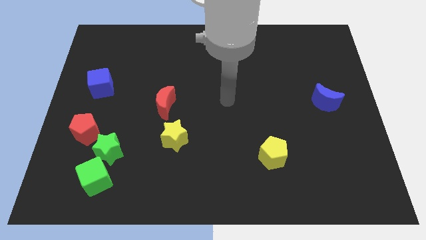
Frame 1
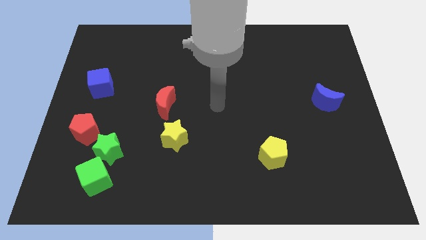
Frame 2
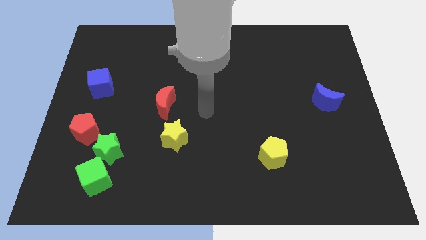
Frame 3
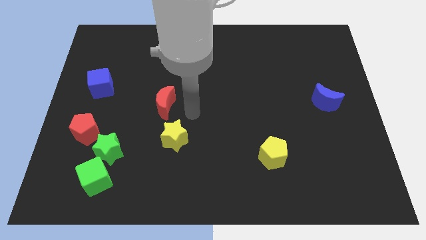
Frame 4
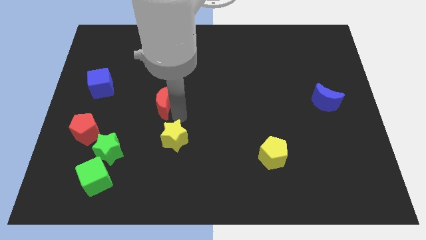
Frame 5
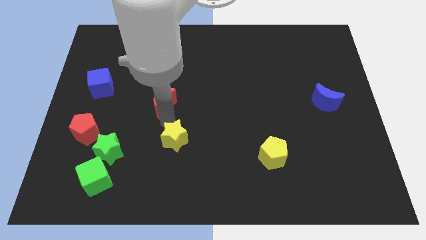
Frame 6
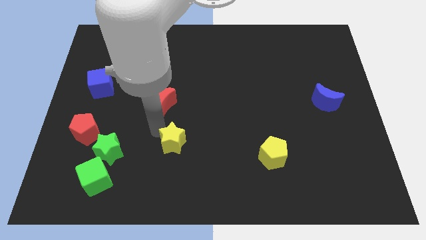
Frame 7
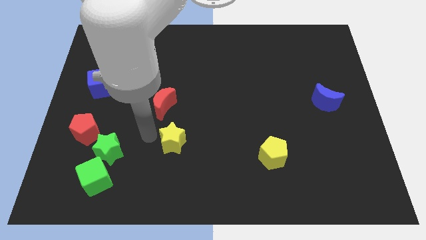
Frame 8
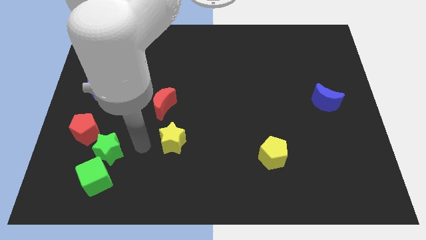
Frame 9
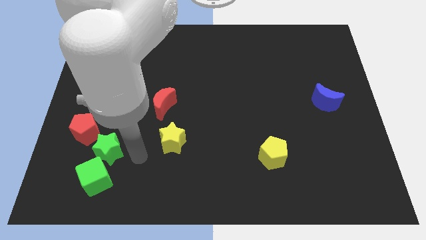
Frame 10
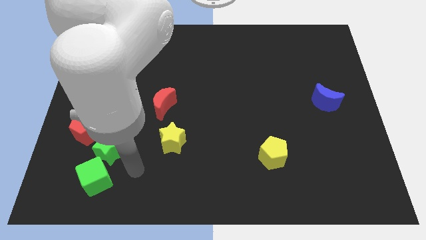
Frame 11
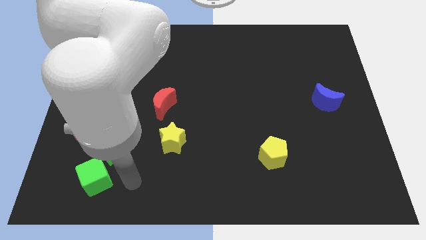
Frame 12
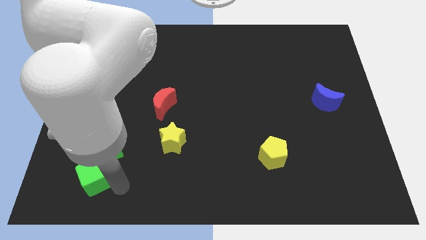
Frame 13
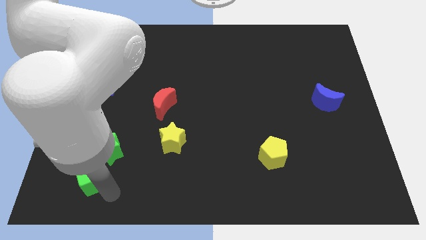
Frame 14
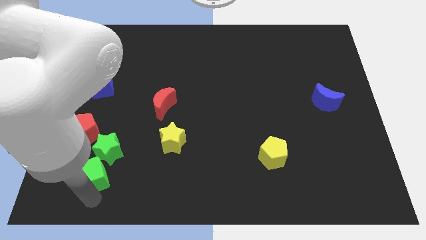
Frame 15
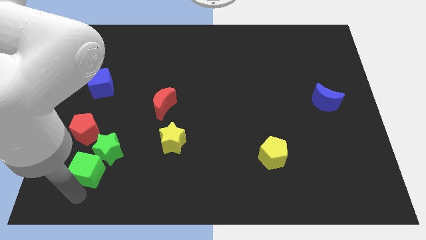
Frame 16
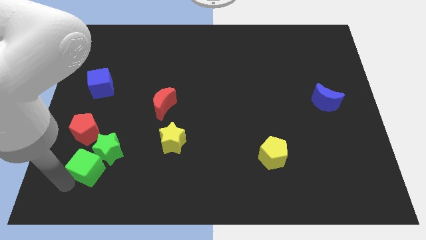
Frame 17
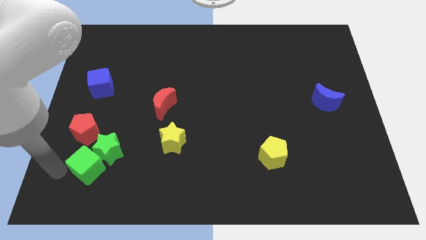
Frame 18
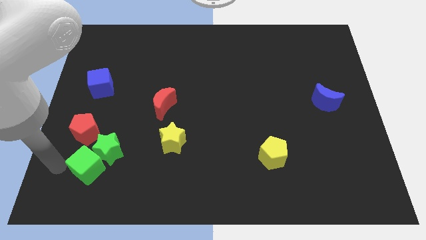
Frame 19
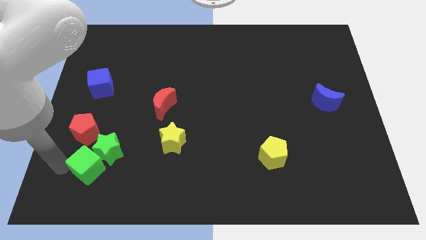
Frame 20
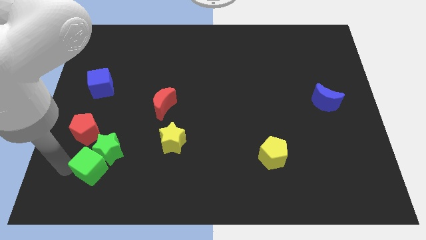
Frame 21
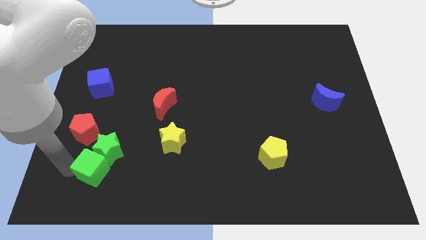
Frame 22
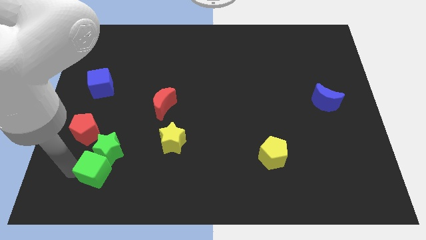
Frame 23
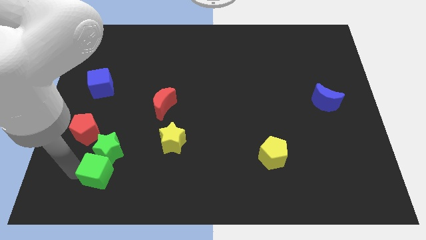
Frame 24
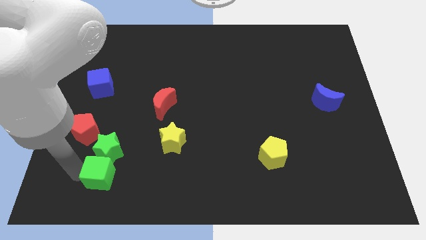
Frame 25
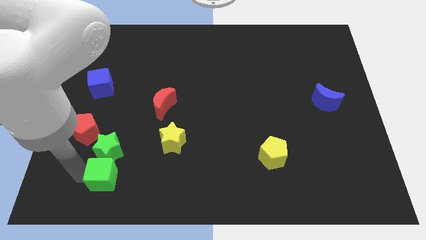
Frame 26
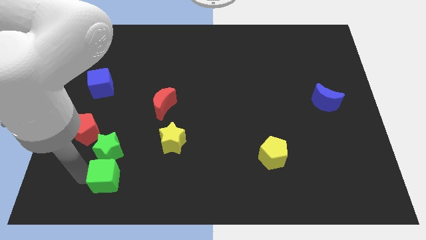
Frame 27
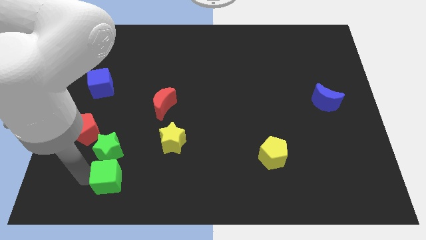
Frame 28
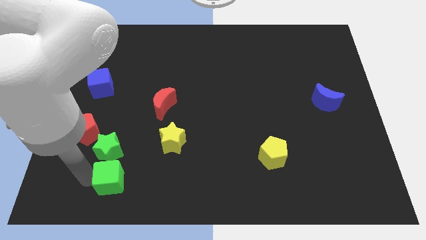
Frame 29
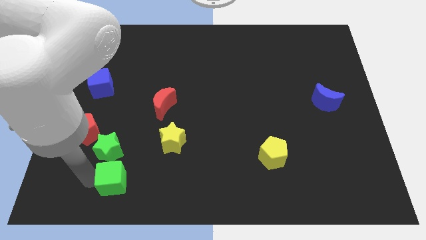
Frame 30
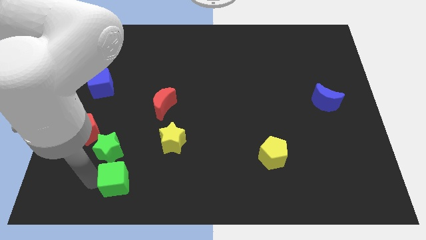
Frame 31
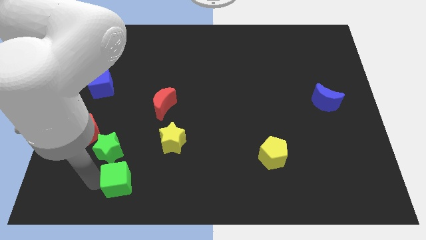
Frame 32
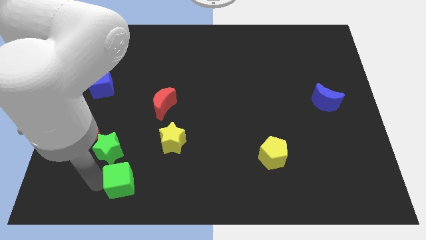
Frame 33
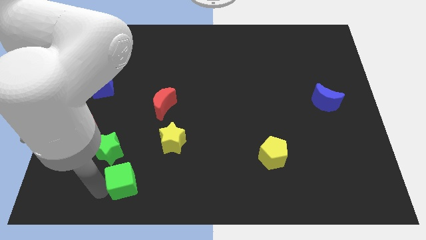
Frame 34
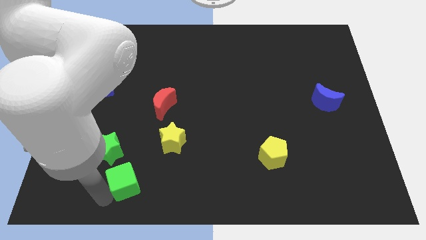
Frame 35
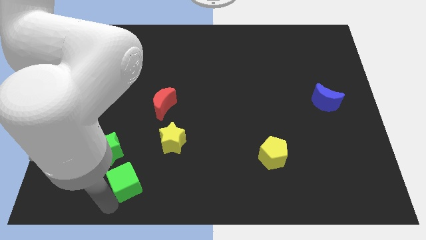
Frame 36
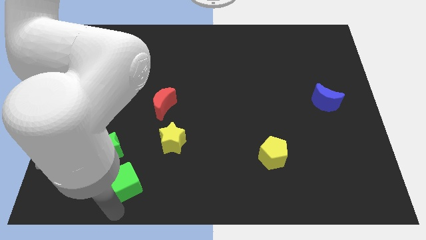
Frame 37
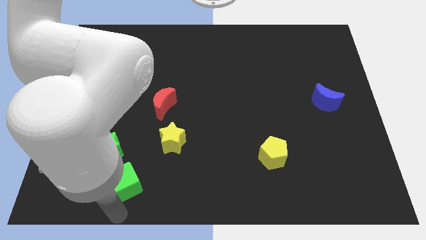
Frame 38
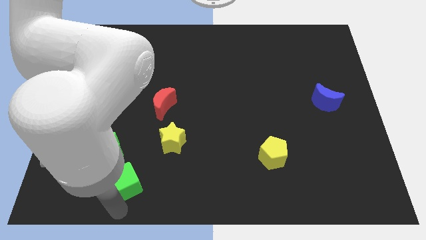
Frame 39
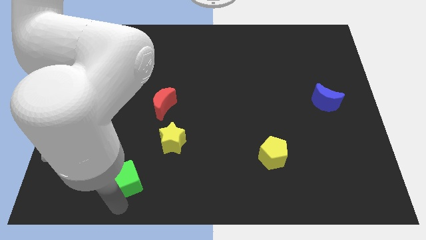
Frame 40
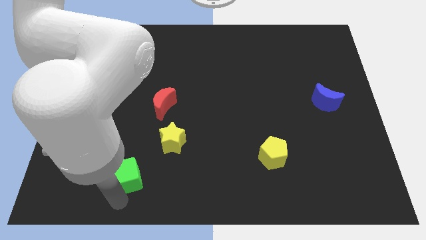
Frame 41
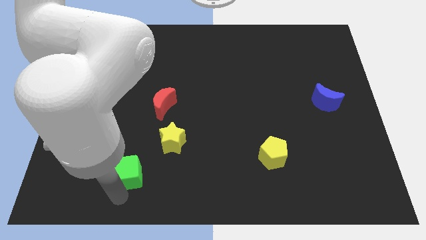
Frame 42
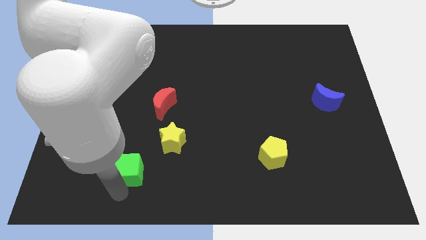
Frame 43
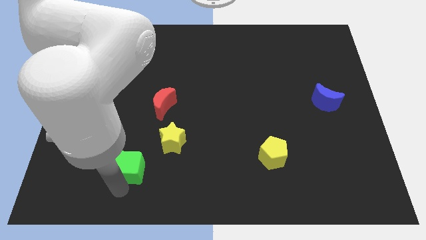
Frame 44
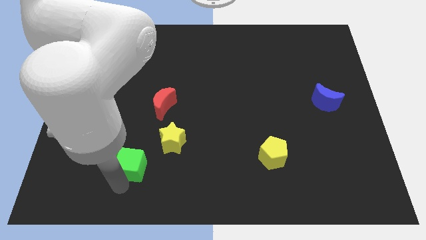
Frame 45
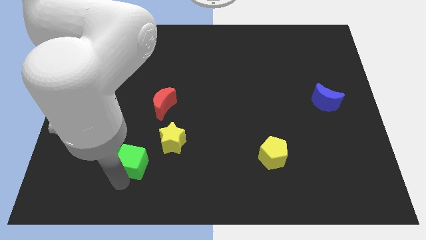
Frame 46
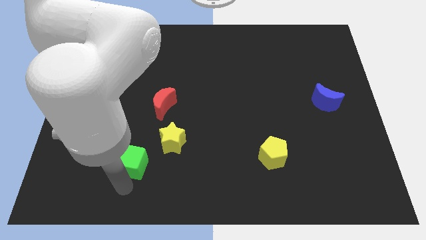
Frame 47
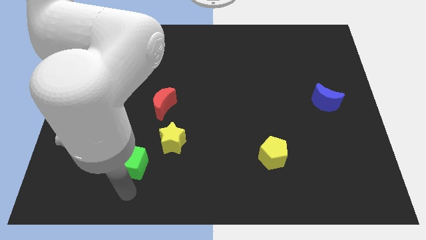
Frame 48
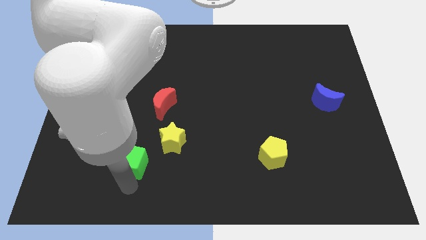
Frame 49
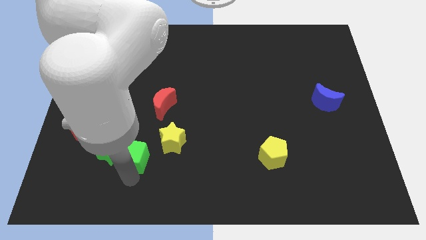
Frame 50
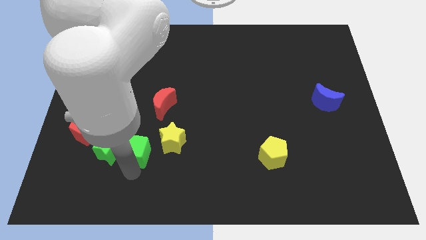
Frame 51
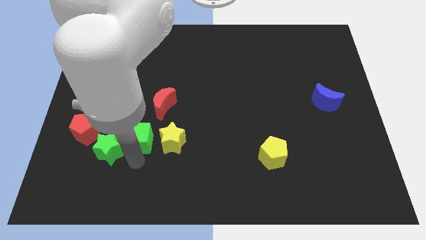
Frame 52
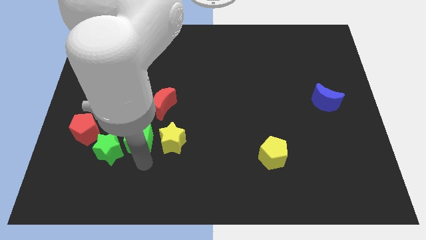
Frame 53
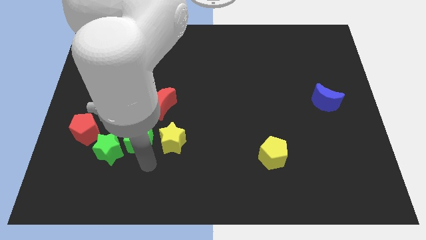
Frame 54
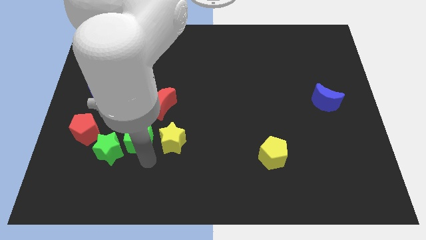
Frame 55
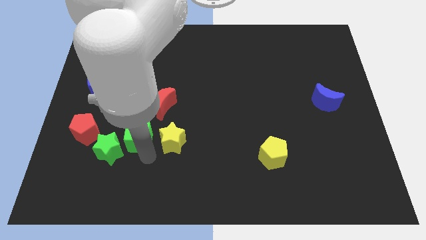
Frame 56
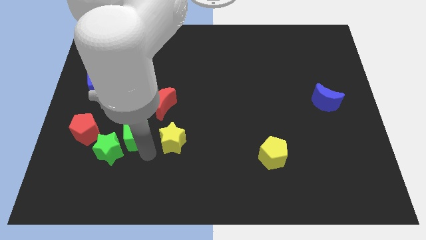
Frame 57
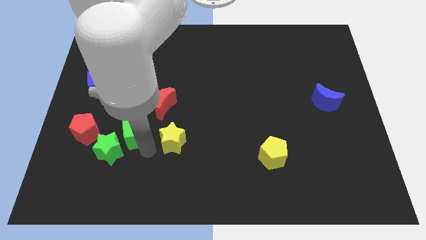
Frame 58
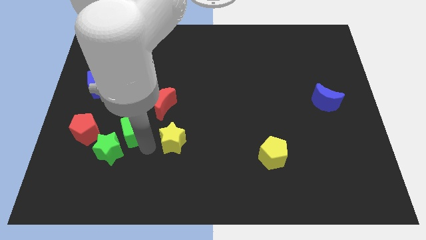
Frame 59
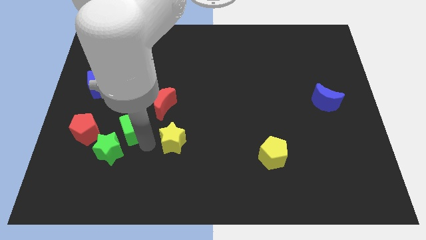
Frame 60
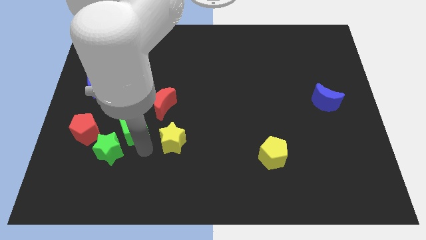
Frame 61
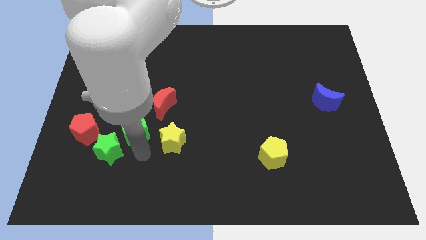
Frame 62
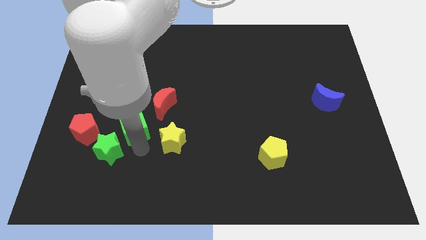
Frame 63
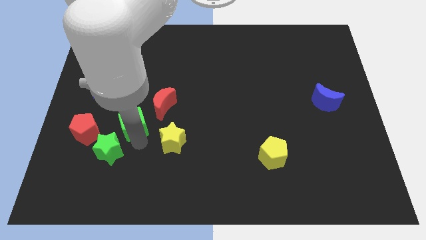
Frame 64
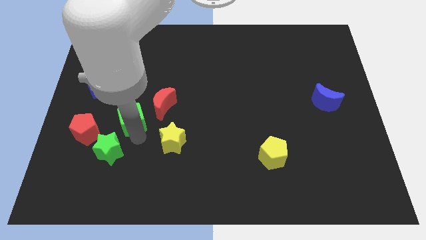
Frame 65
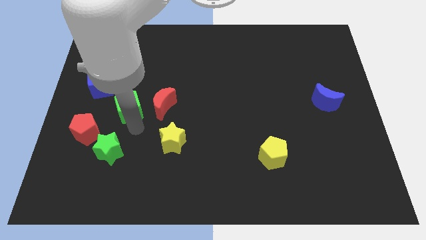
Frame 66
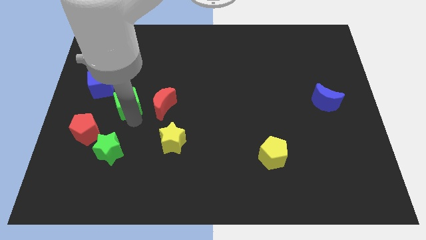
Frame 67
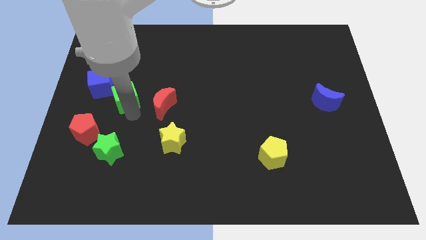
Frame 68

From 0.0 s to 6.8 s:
push the green cube upwards

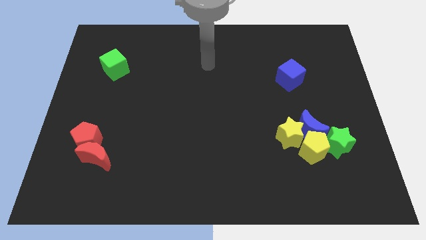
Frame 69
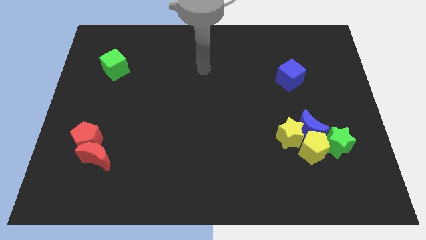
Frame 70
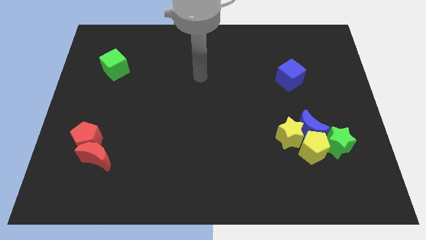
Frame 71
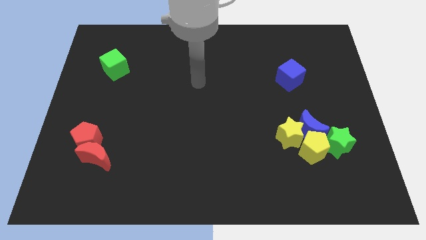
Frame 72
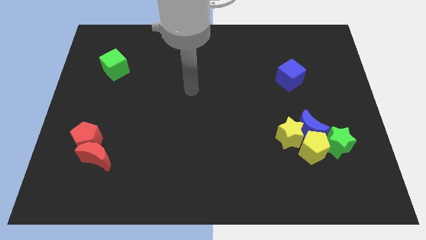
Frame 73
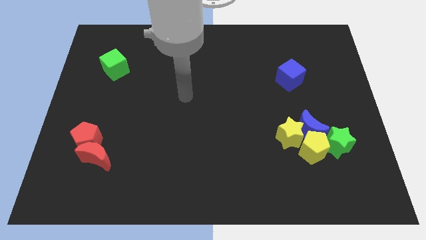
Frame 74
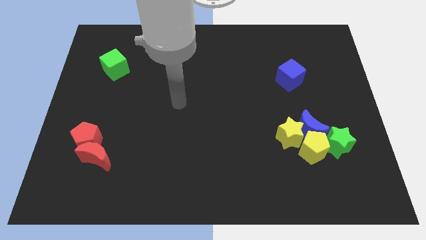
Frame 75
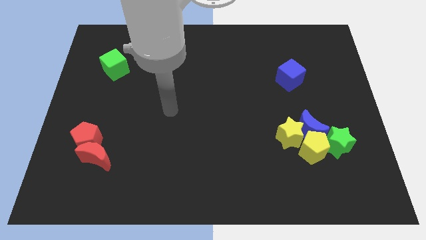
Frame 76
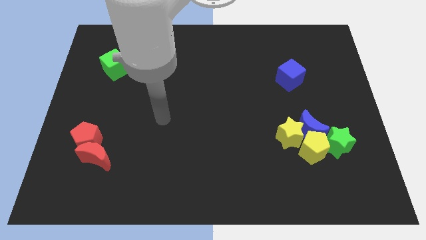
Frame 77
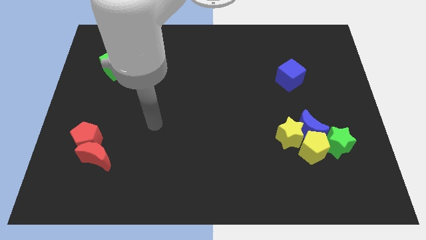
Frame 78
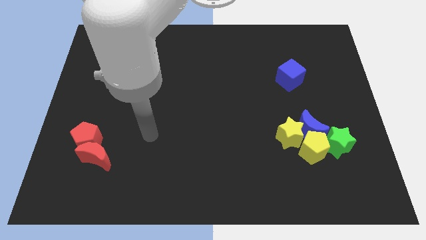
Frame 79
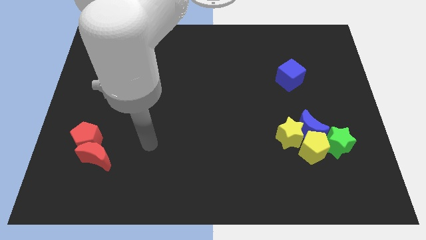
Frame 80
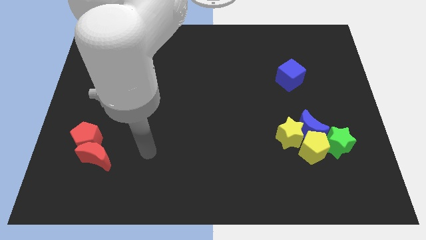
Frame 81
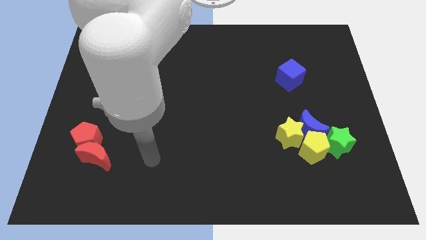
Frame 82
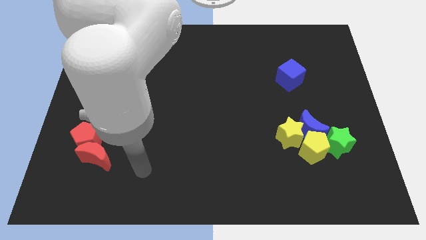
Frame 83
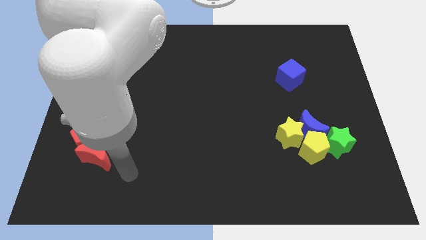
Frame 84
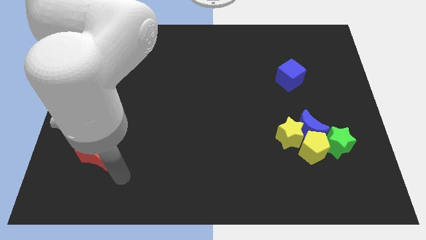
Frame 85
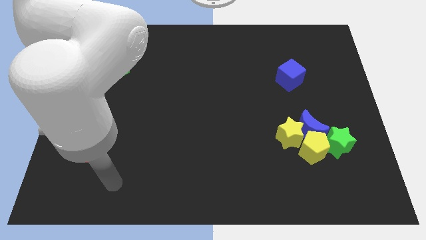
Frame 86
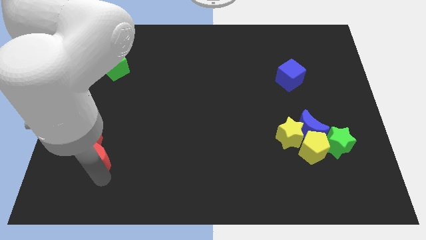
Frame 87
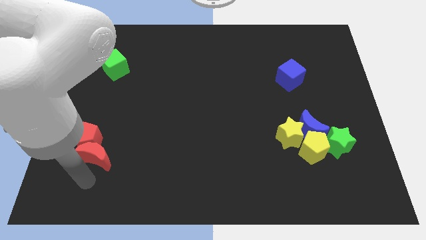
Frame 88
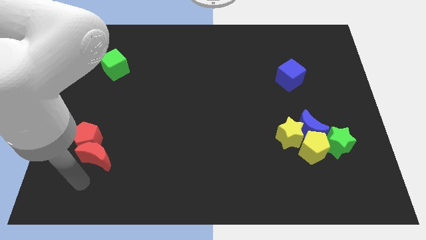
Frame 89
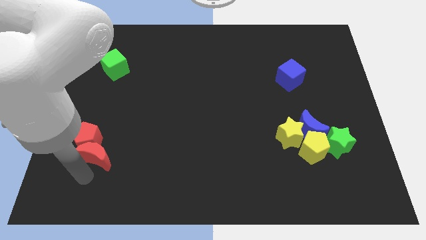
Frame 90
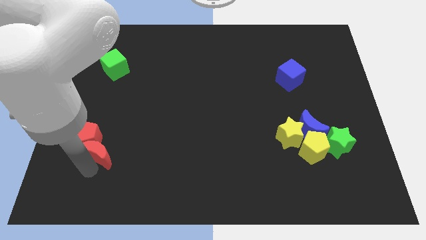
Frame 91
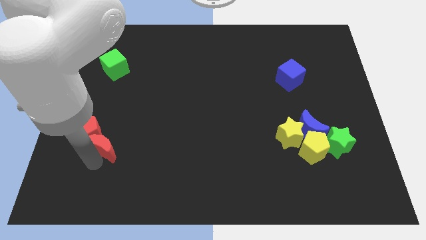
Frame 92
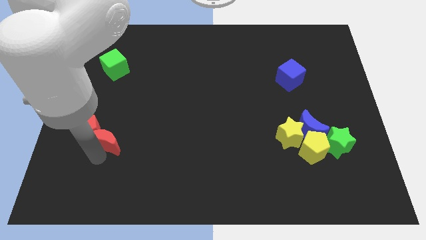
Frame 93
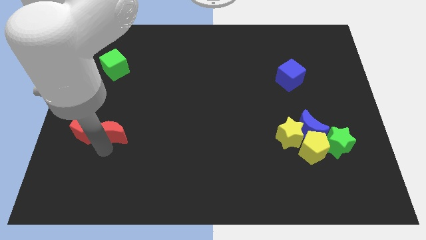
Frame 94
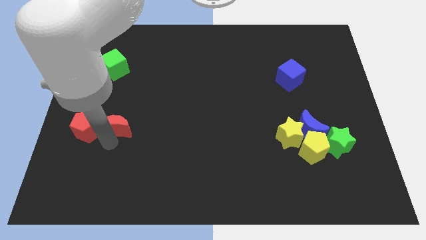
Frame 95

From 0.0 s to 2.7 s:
push the red moon a little bit up
